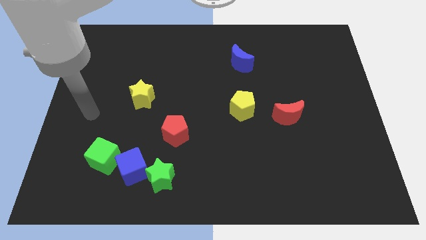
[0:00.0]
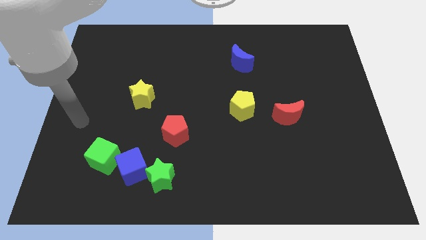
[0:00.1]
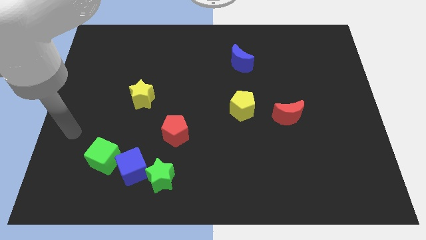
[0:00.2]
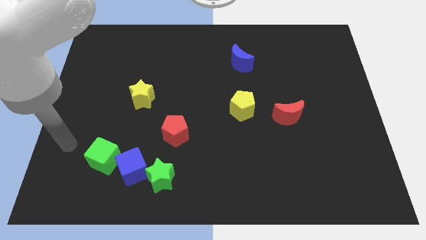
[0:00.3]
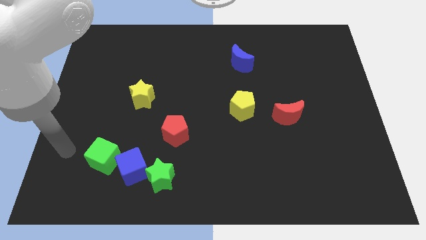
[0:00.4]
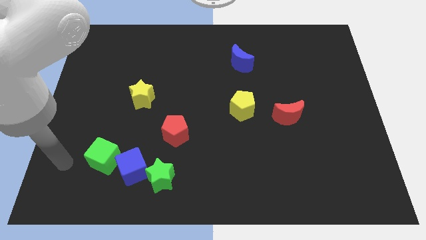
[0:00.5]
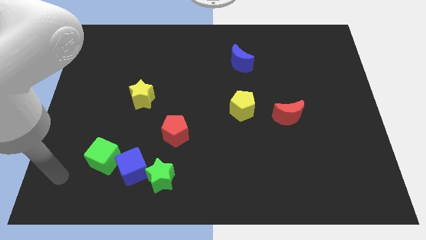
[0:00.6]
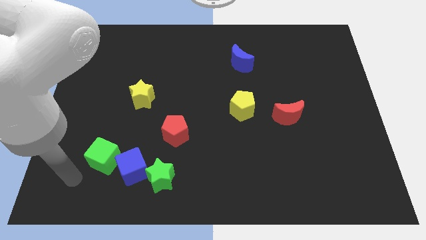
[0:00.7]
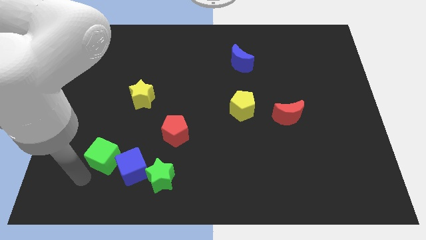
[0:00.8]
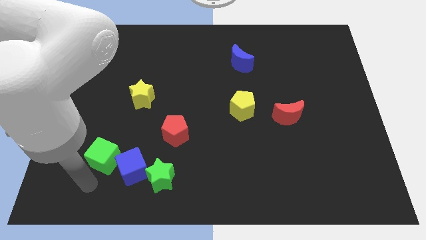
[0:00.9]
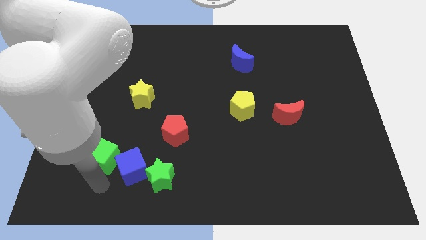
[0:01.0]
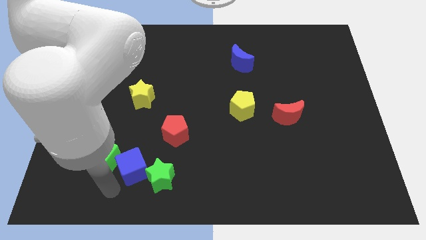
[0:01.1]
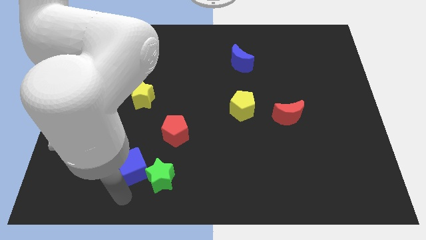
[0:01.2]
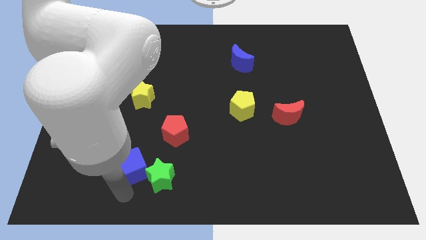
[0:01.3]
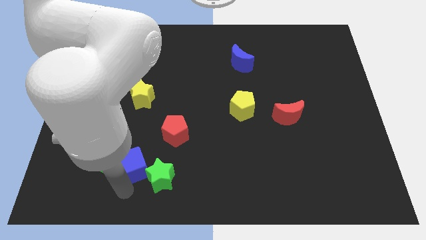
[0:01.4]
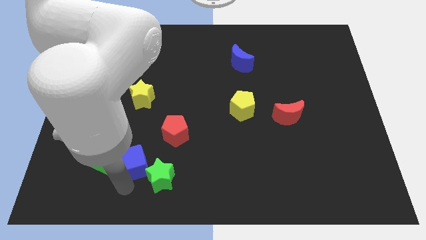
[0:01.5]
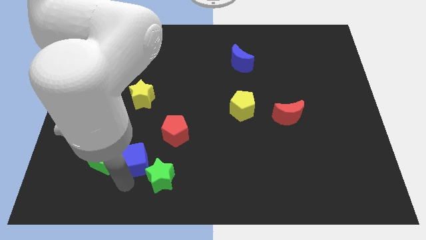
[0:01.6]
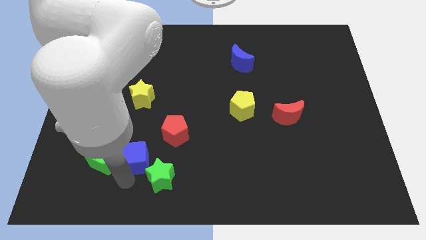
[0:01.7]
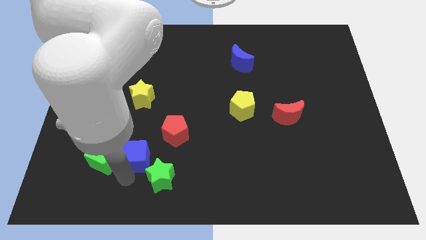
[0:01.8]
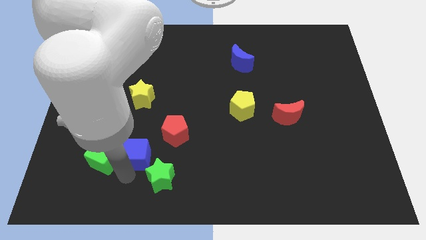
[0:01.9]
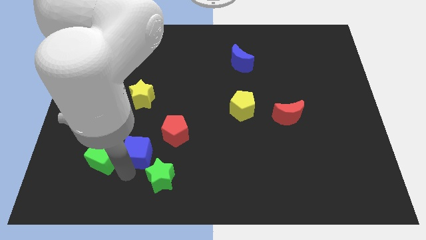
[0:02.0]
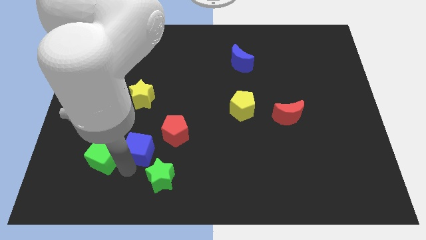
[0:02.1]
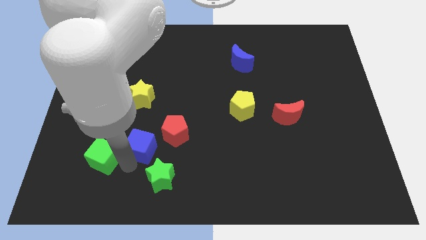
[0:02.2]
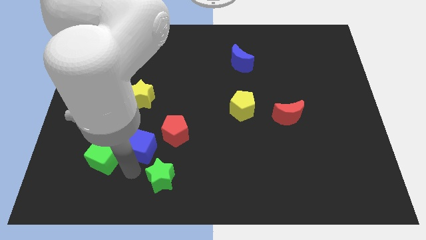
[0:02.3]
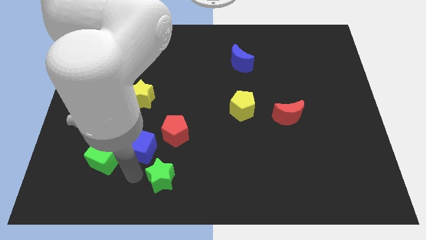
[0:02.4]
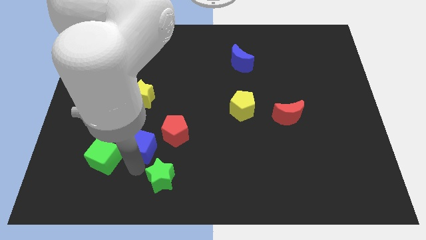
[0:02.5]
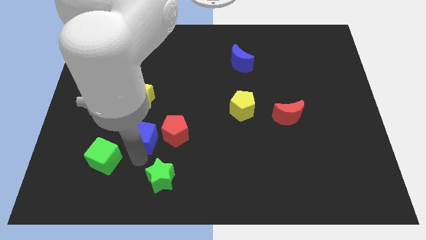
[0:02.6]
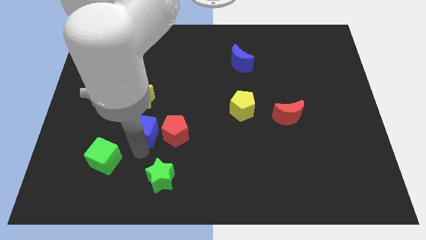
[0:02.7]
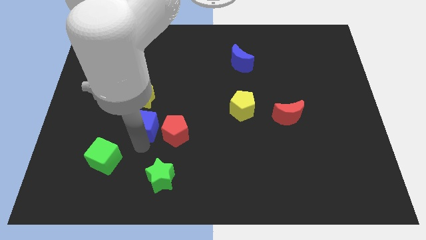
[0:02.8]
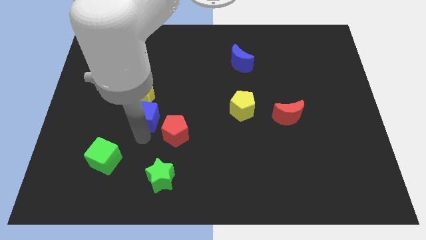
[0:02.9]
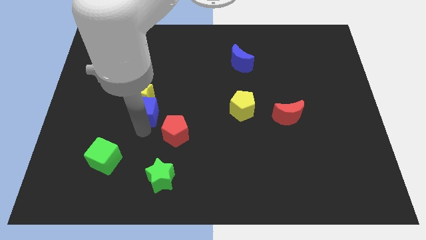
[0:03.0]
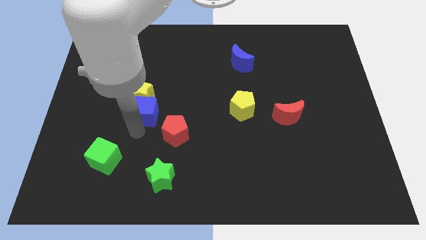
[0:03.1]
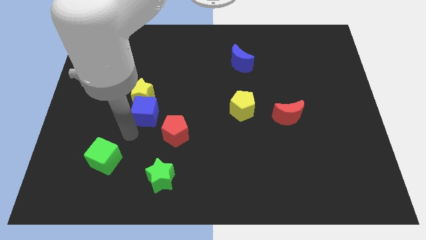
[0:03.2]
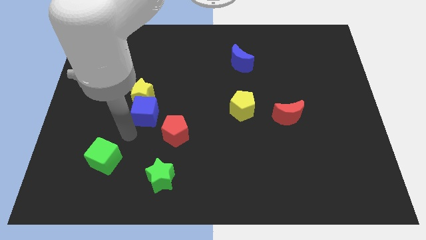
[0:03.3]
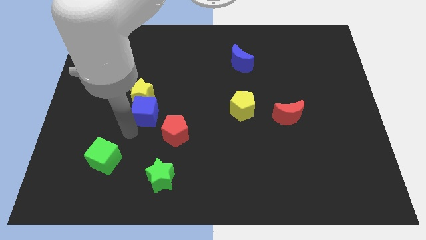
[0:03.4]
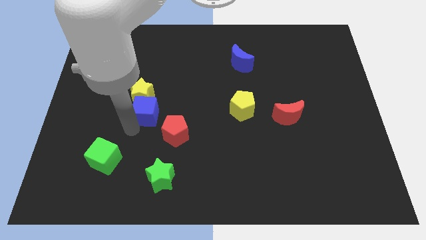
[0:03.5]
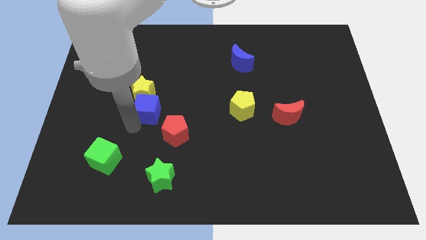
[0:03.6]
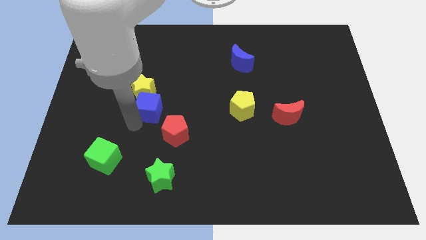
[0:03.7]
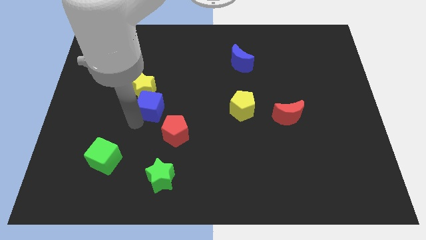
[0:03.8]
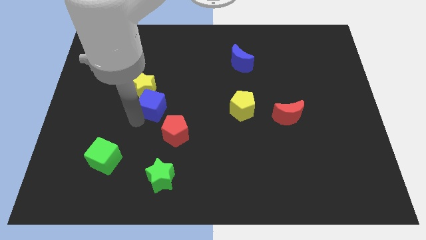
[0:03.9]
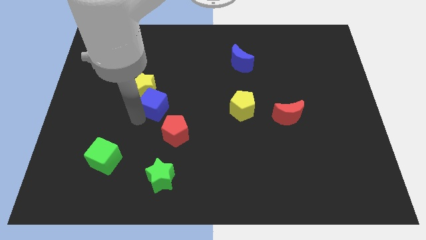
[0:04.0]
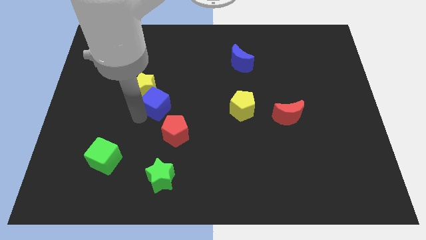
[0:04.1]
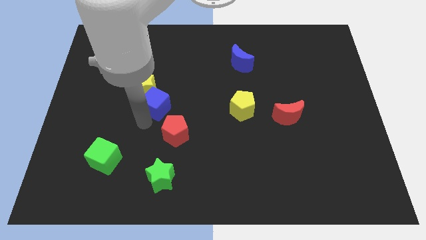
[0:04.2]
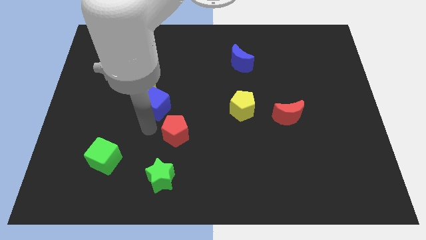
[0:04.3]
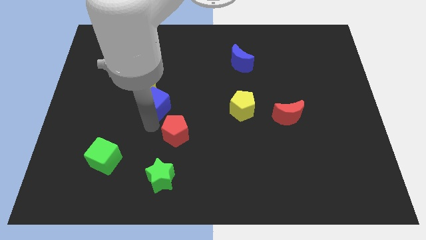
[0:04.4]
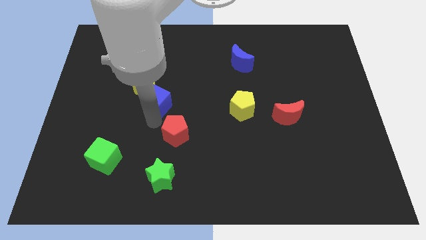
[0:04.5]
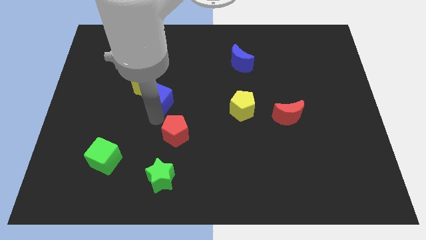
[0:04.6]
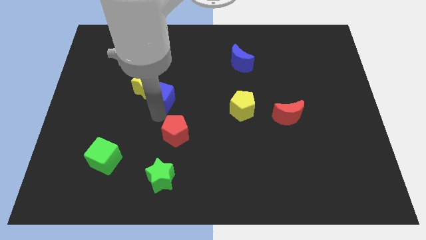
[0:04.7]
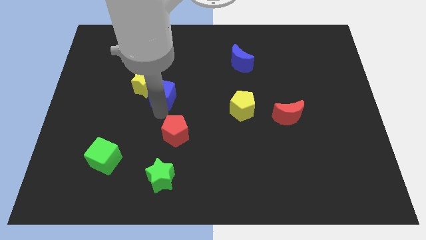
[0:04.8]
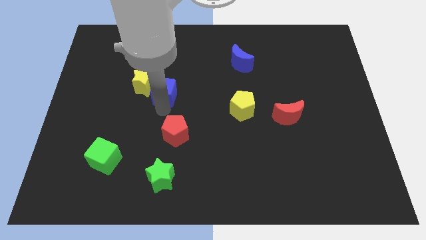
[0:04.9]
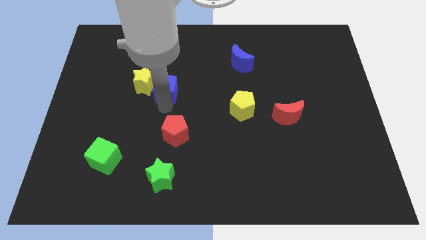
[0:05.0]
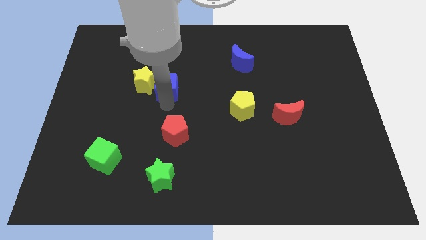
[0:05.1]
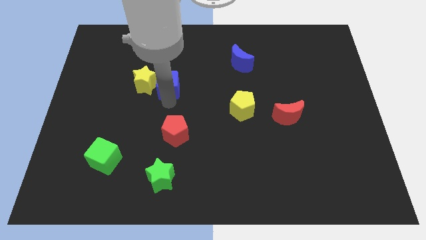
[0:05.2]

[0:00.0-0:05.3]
push the blue cube to the top right of the yellow star
